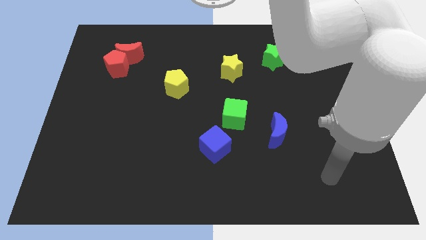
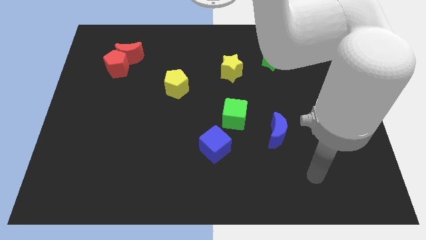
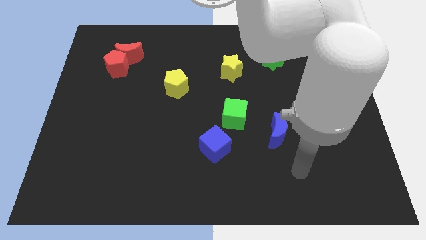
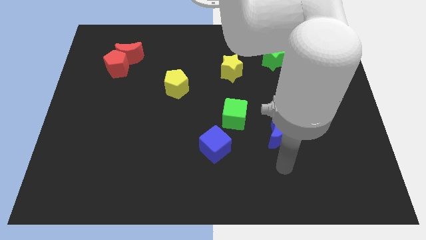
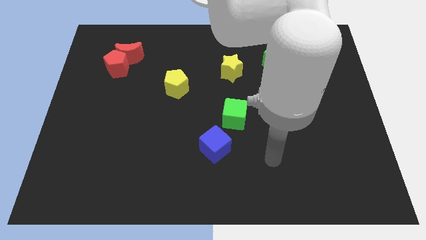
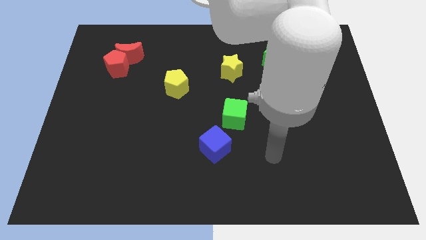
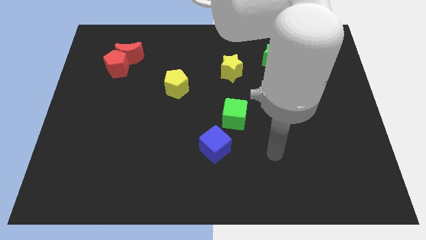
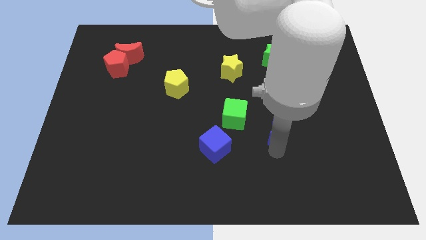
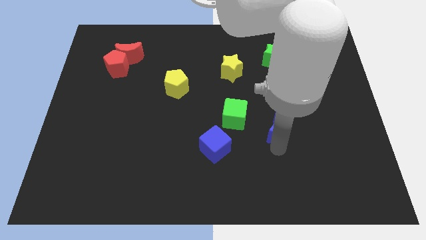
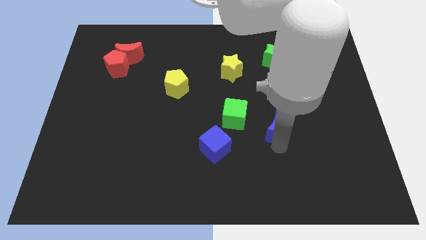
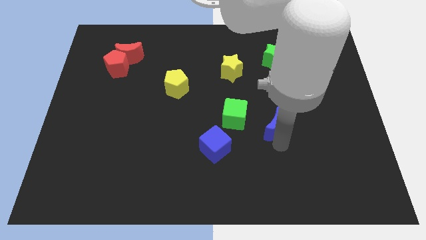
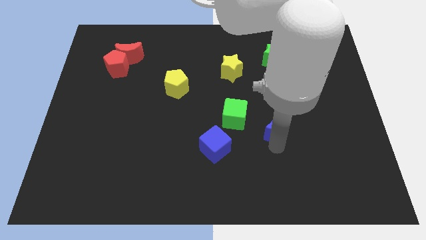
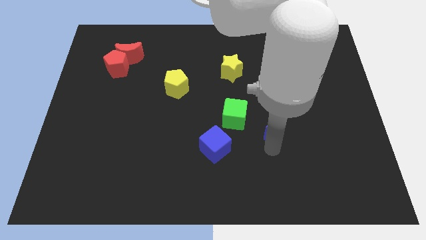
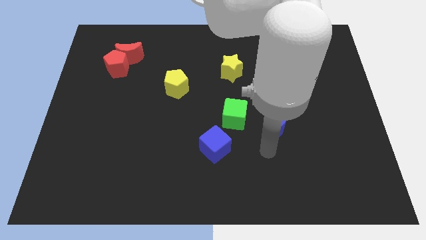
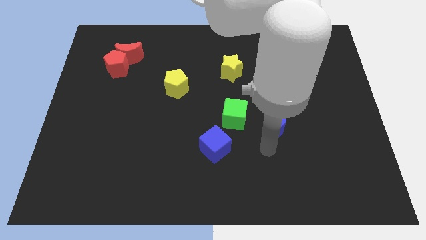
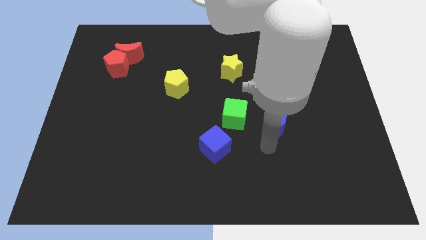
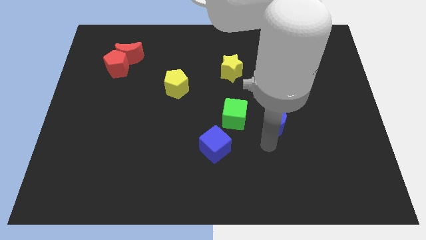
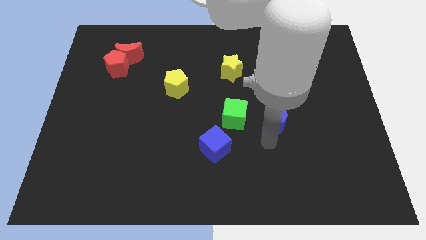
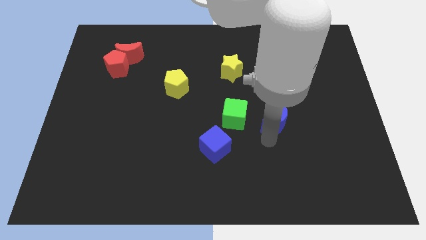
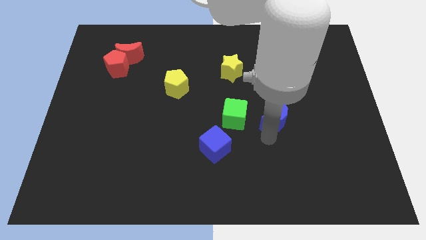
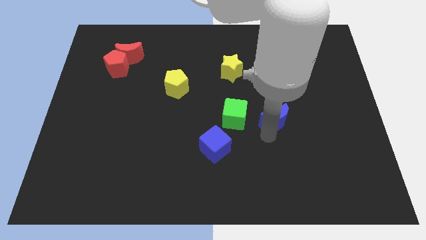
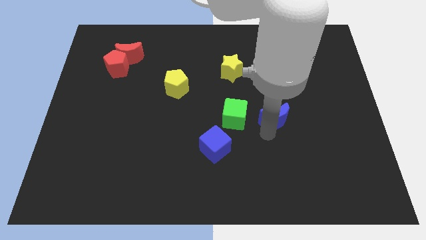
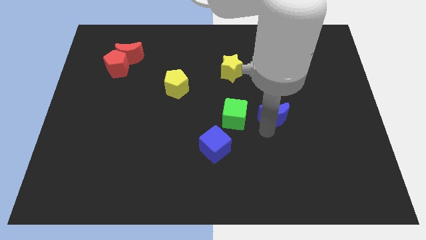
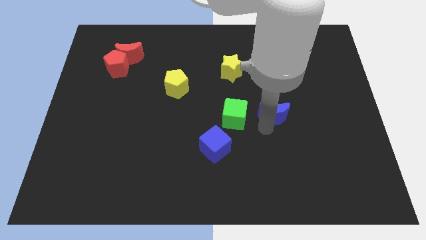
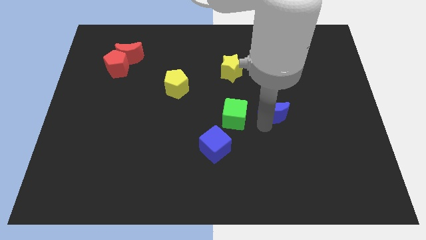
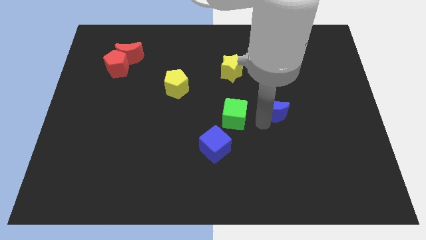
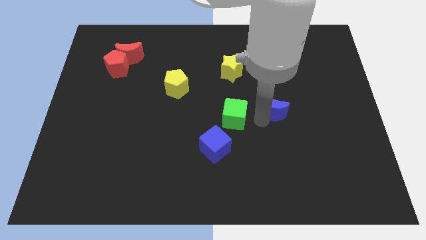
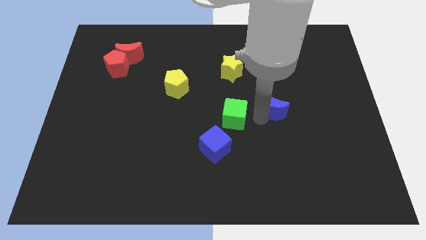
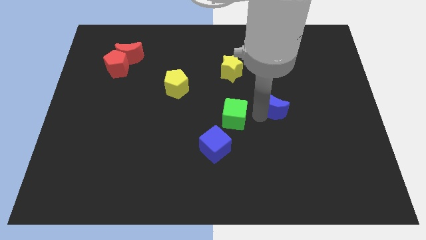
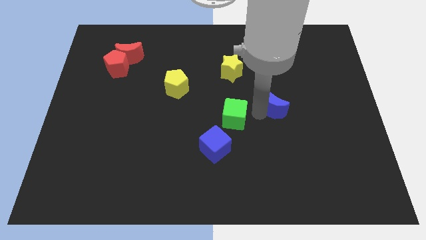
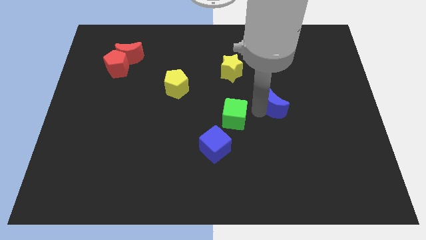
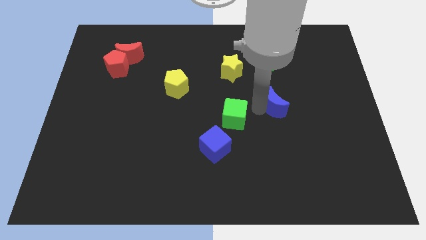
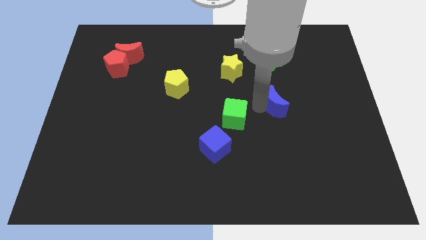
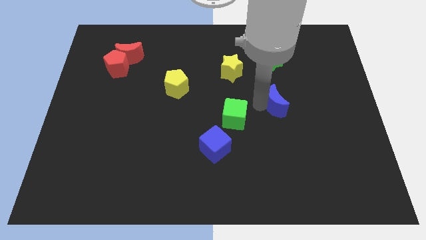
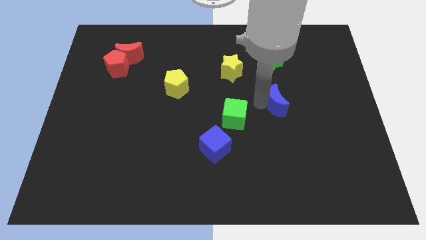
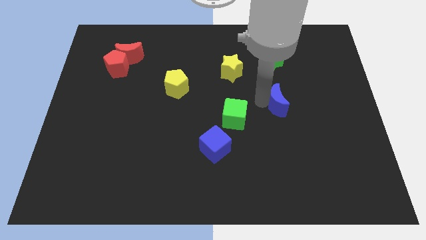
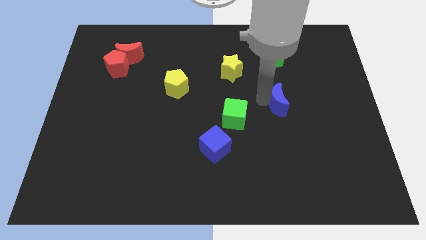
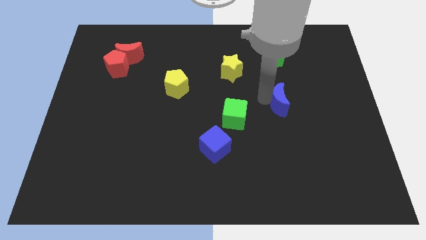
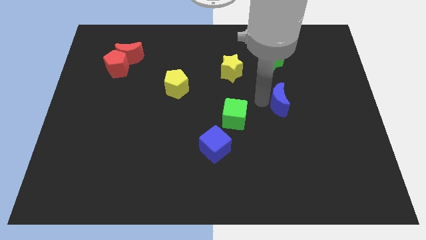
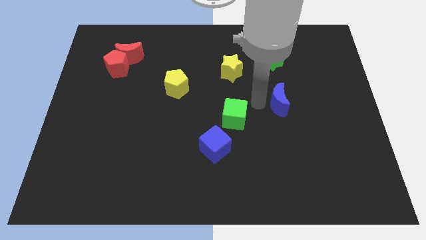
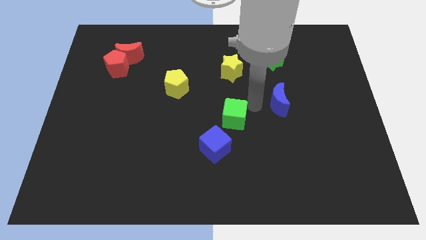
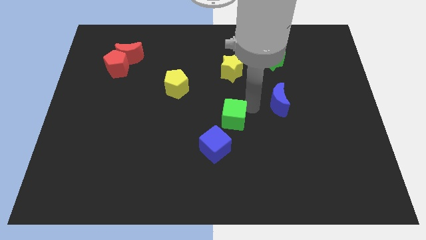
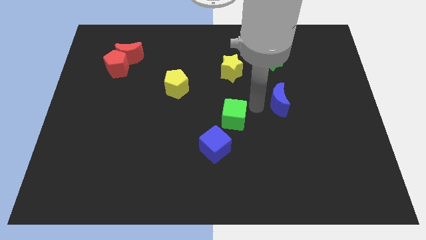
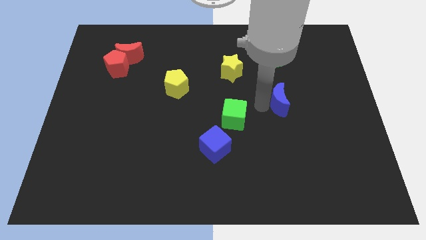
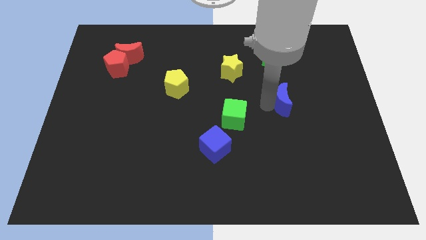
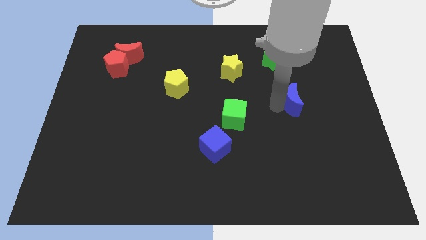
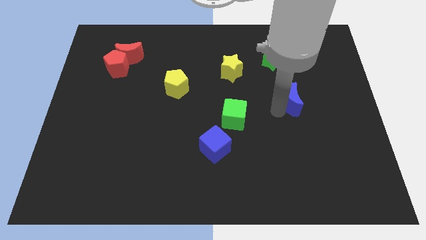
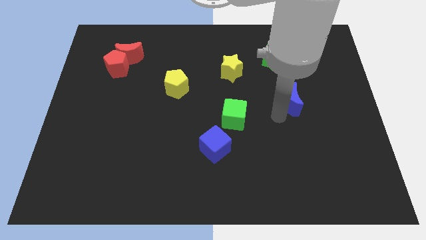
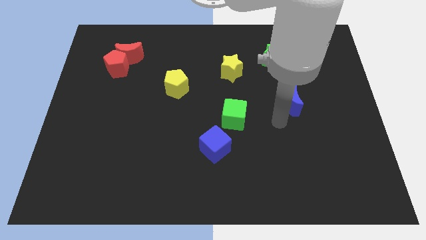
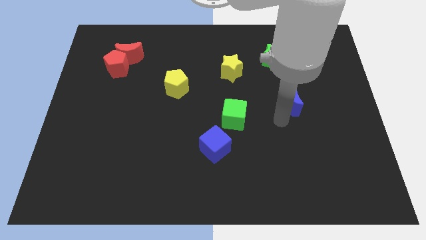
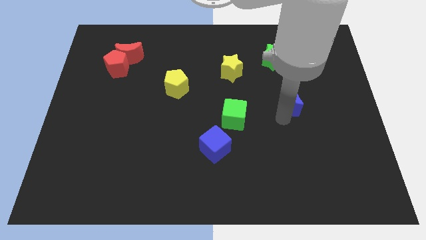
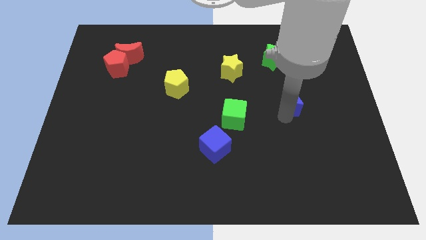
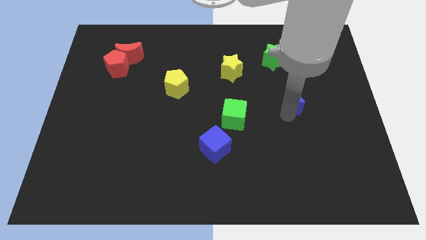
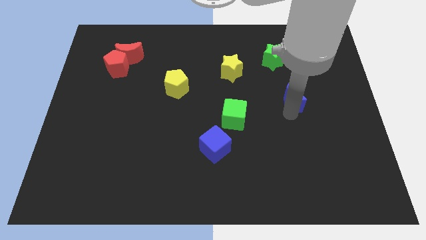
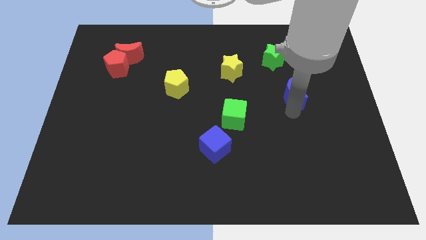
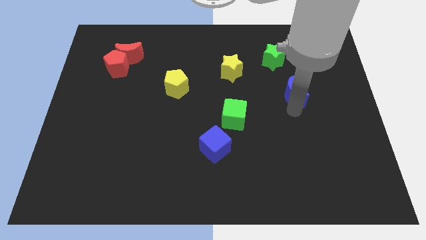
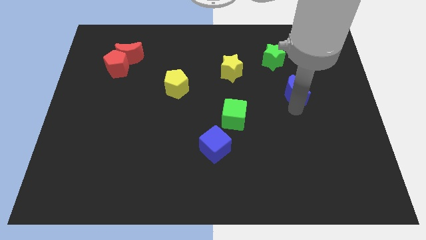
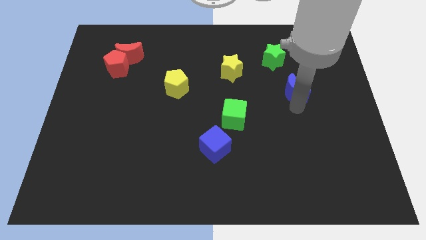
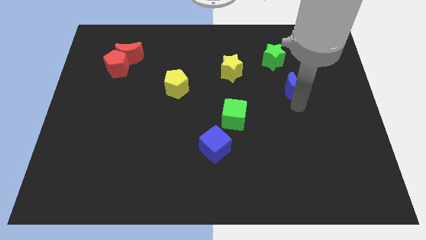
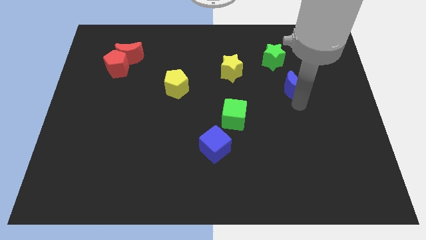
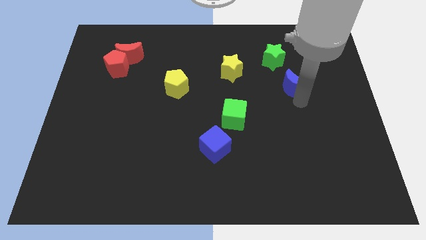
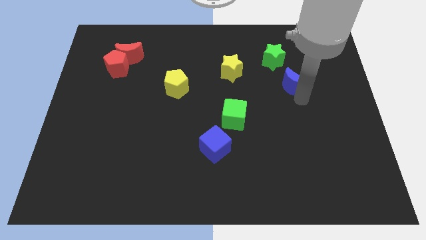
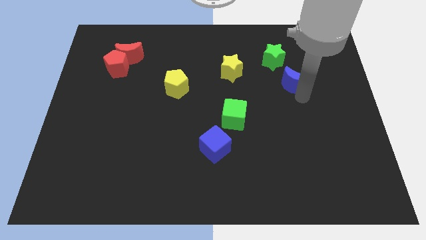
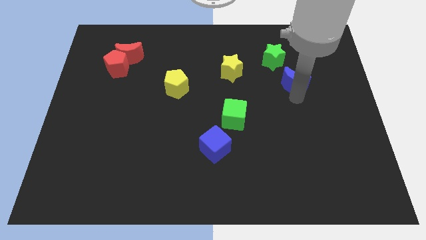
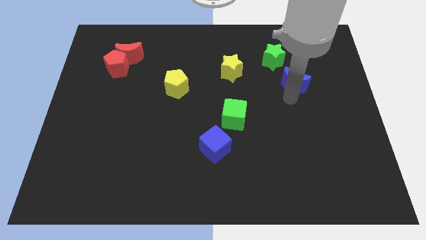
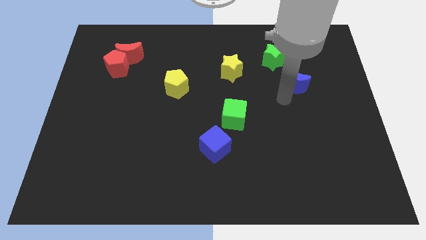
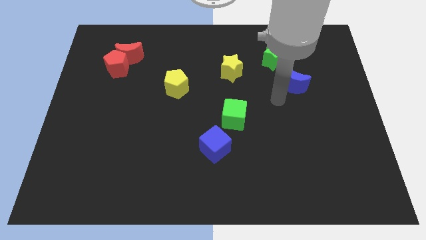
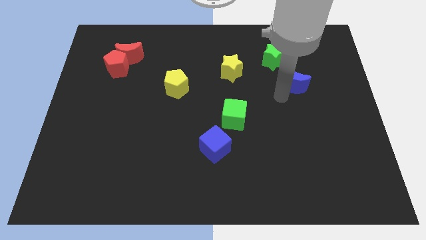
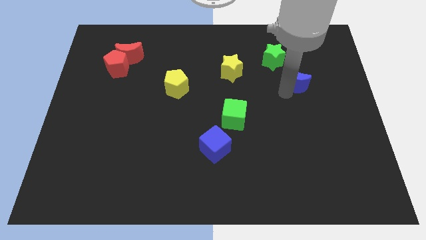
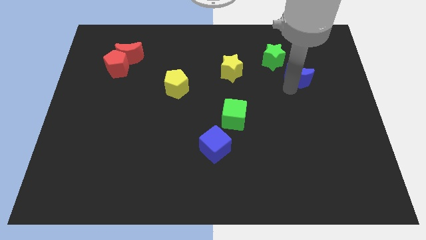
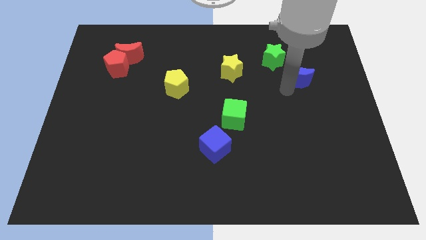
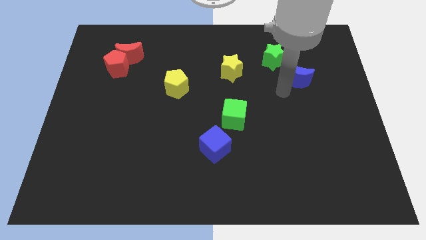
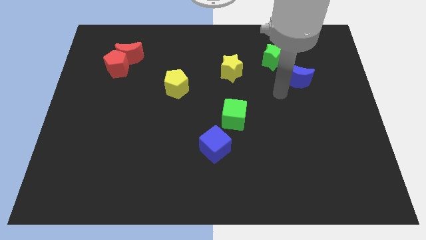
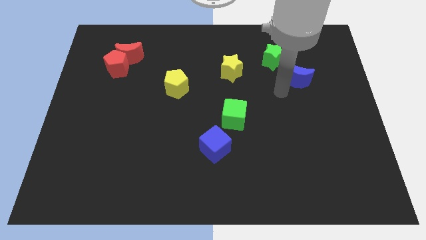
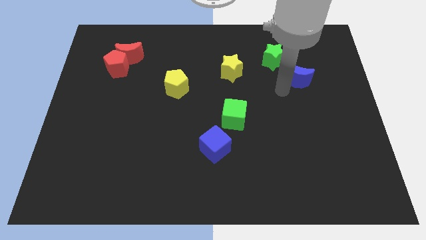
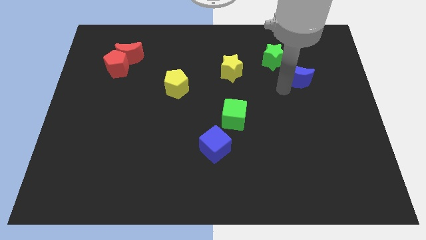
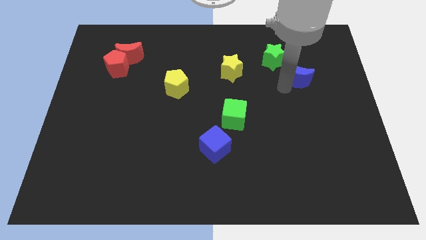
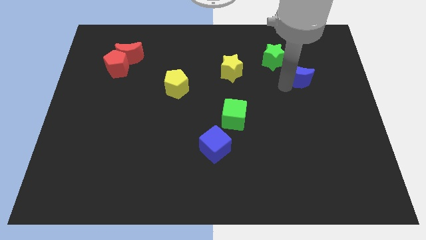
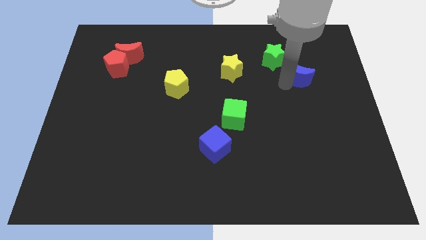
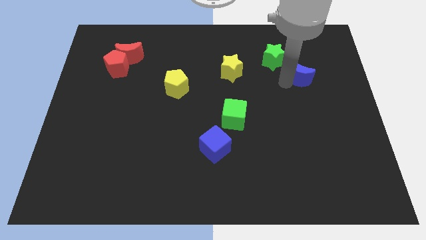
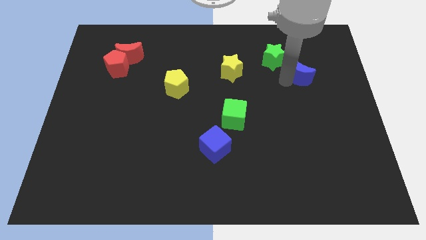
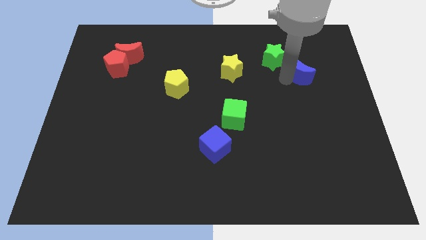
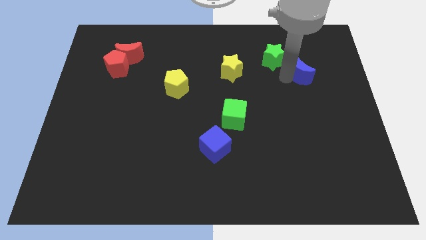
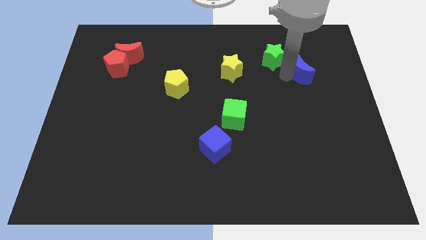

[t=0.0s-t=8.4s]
move the blue moon just right of the green star
